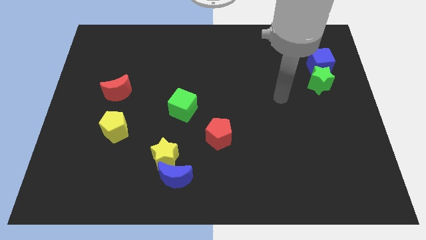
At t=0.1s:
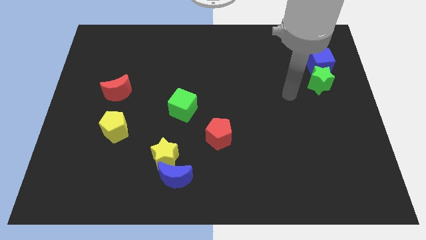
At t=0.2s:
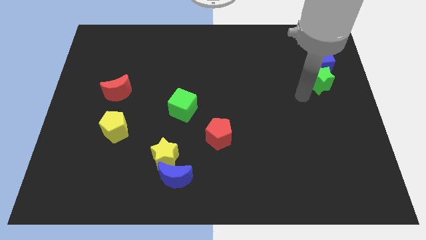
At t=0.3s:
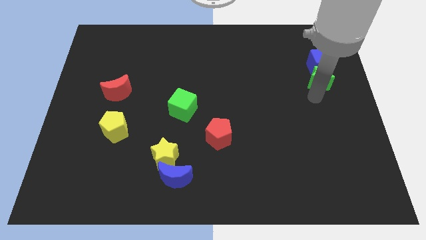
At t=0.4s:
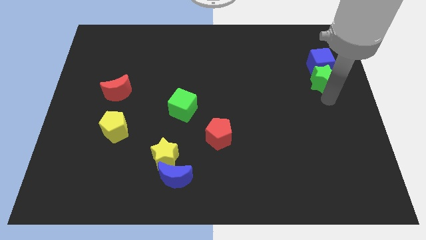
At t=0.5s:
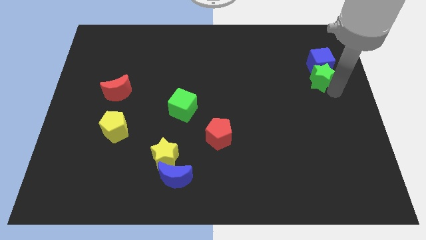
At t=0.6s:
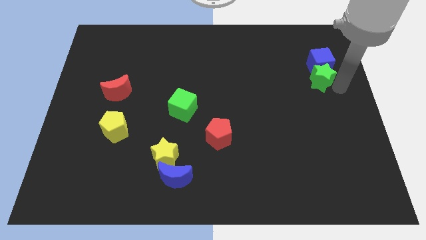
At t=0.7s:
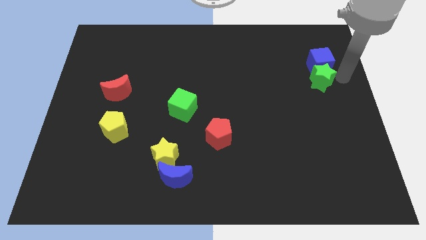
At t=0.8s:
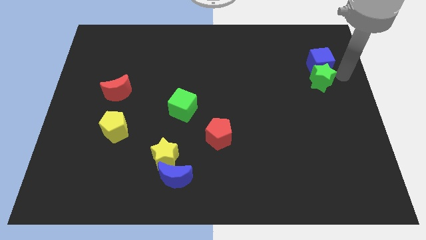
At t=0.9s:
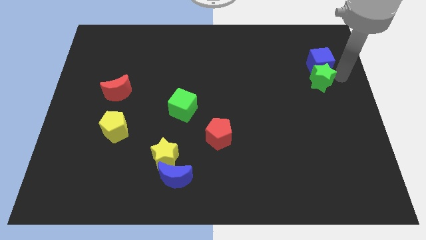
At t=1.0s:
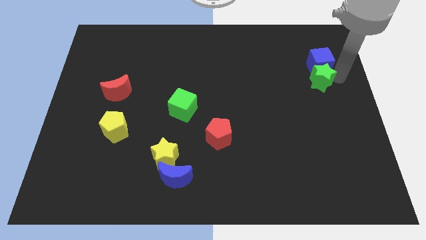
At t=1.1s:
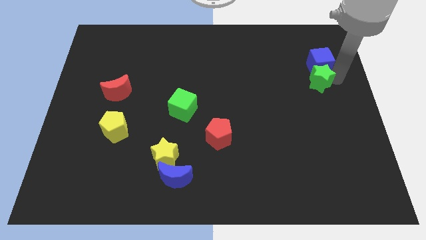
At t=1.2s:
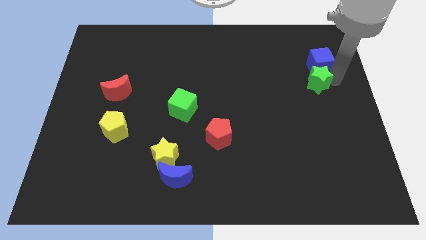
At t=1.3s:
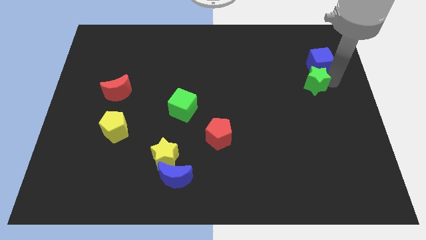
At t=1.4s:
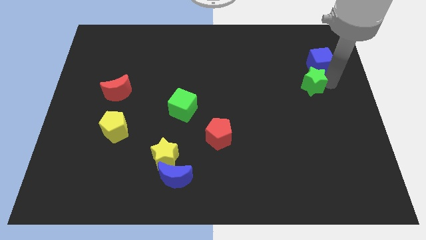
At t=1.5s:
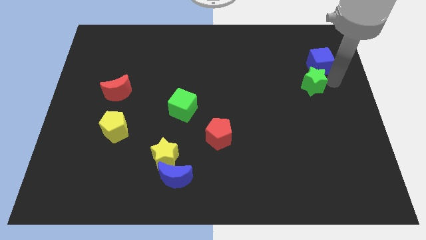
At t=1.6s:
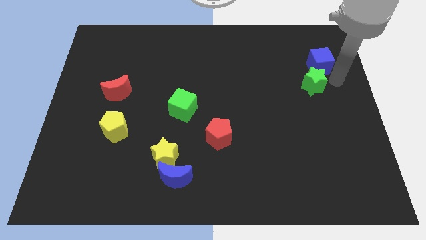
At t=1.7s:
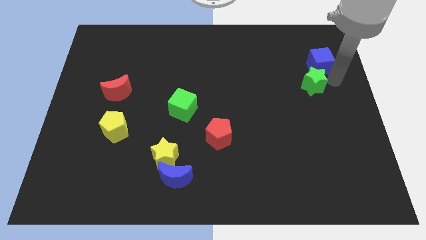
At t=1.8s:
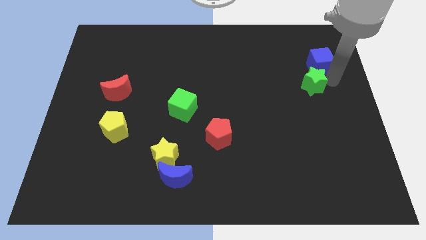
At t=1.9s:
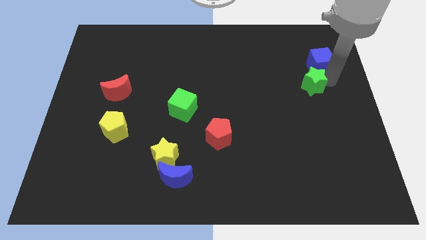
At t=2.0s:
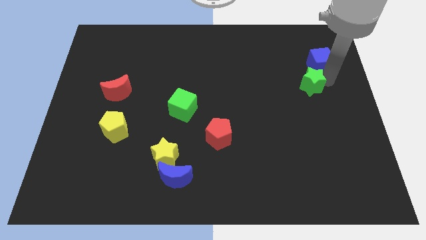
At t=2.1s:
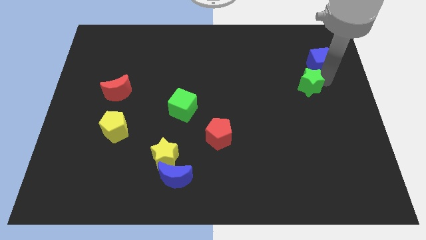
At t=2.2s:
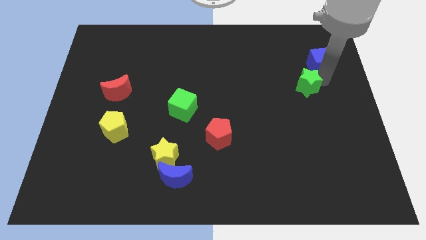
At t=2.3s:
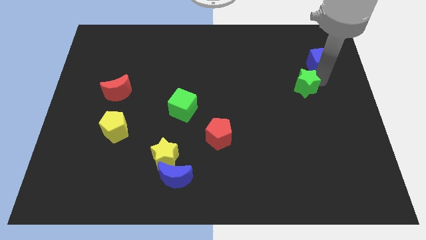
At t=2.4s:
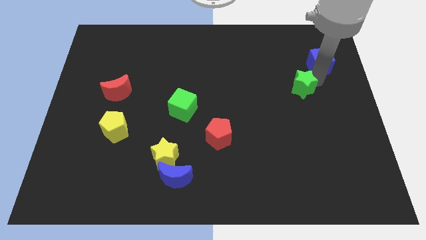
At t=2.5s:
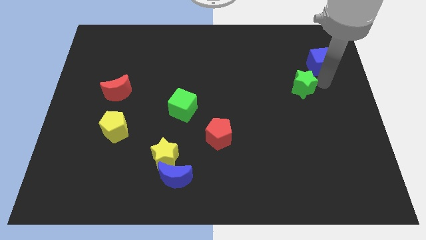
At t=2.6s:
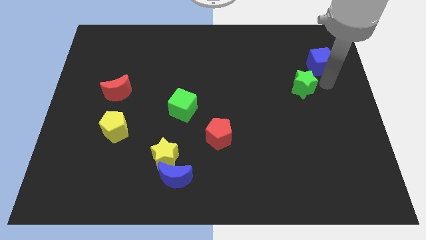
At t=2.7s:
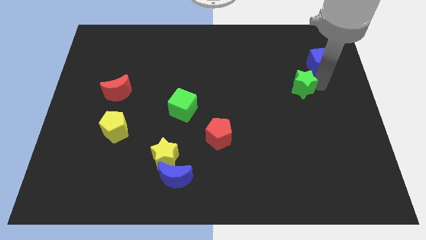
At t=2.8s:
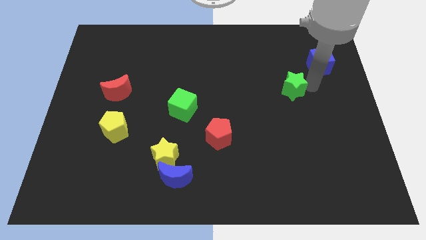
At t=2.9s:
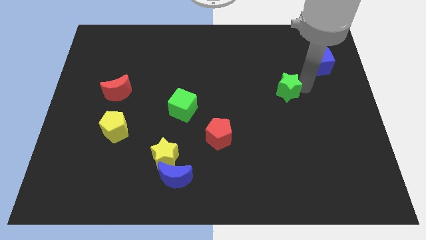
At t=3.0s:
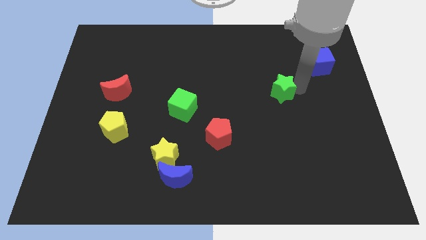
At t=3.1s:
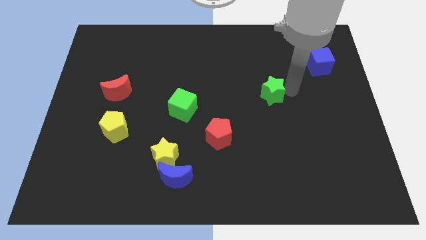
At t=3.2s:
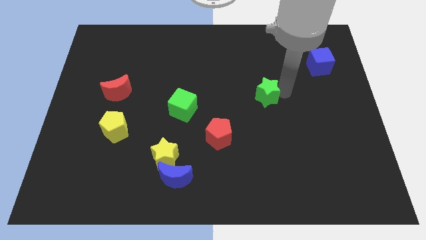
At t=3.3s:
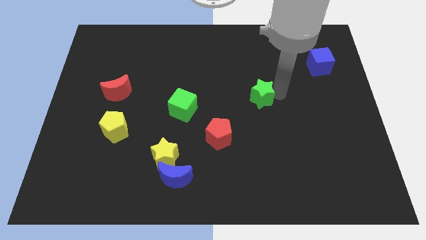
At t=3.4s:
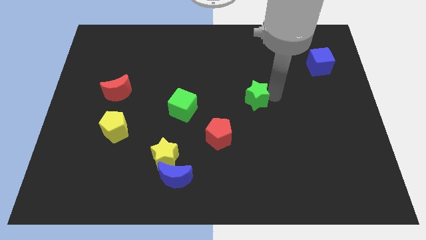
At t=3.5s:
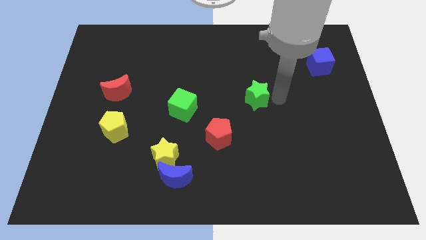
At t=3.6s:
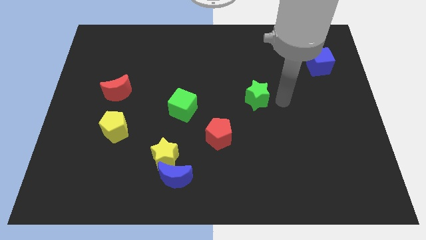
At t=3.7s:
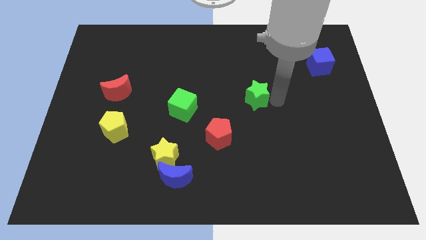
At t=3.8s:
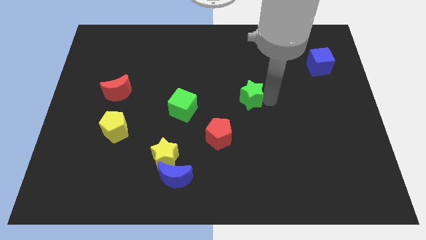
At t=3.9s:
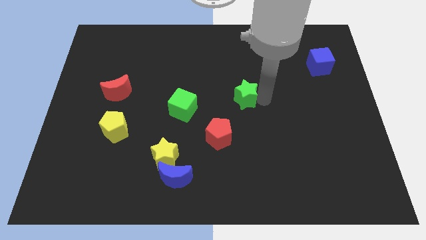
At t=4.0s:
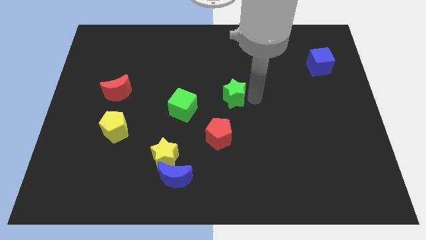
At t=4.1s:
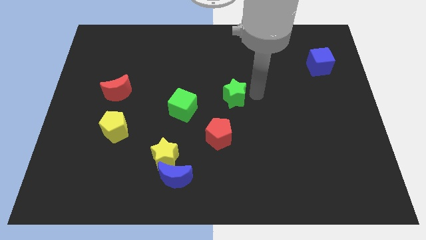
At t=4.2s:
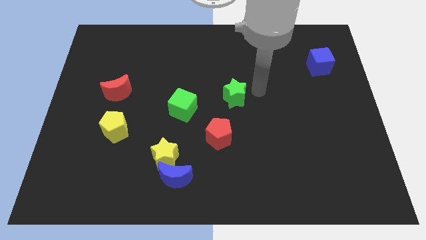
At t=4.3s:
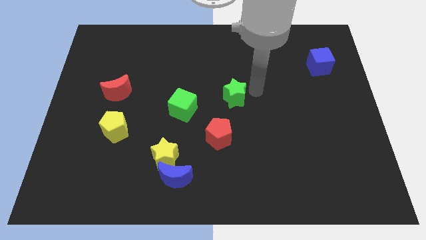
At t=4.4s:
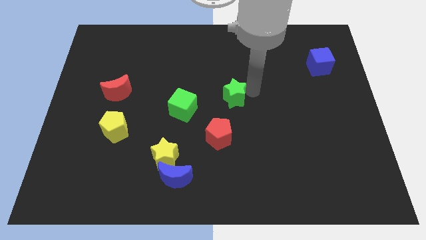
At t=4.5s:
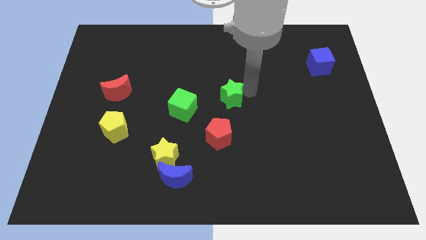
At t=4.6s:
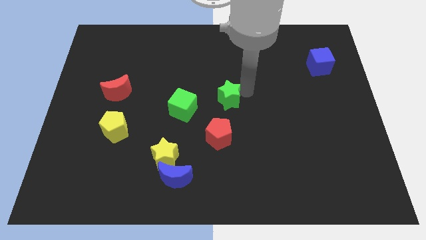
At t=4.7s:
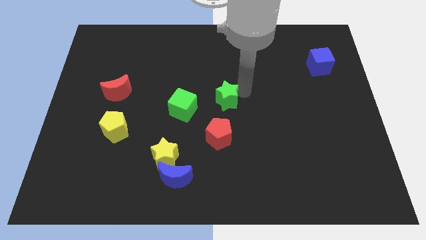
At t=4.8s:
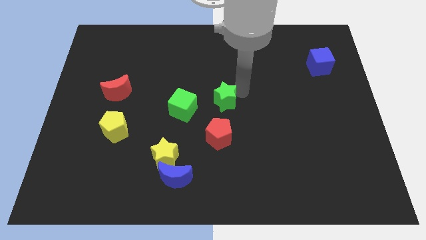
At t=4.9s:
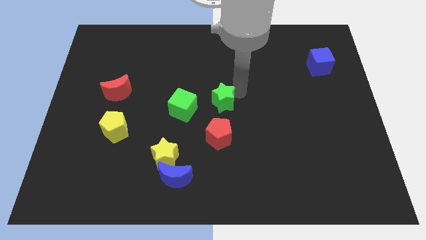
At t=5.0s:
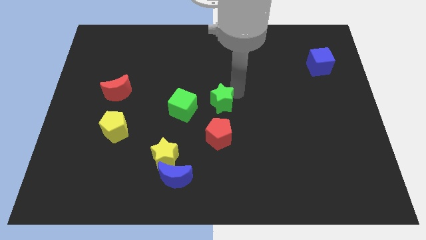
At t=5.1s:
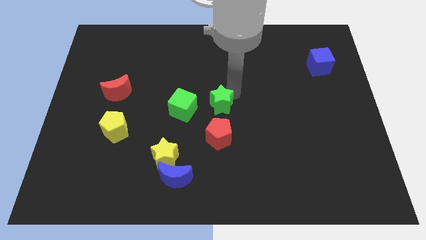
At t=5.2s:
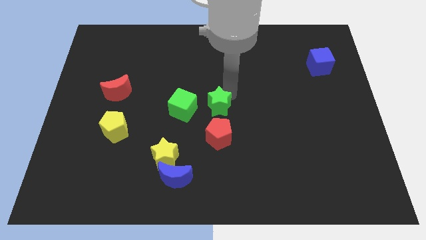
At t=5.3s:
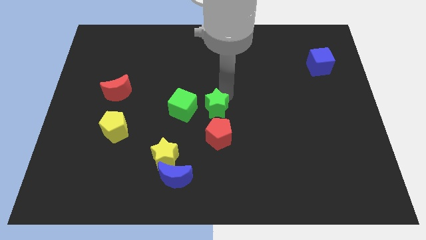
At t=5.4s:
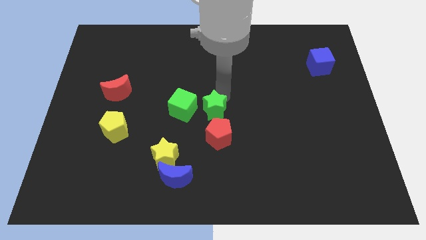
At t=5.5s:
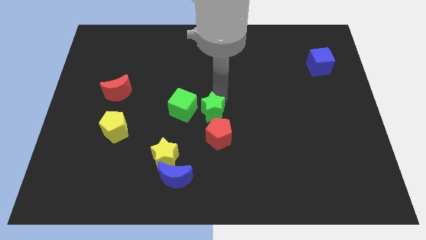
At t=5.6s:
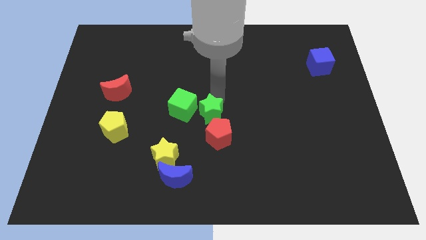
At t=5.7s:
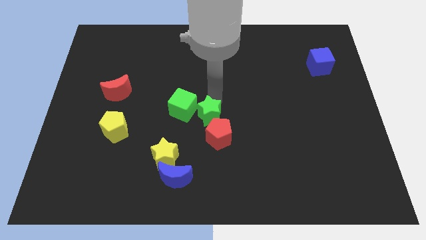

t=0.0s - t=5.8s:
push the green star next to the green cube

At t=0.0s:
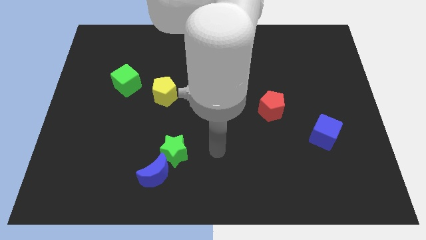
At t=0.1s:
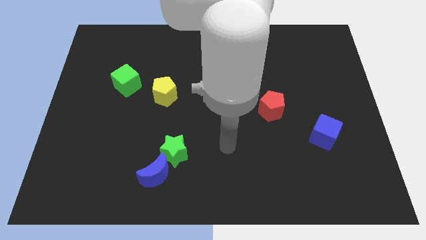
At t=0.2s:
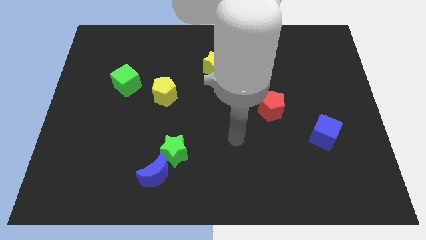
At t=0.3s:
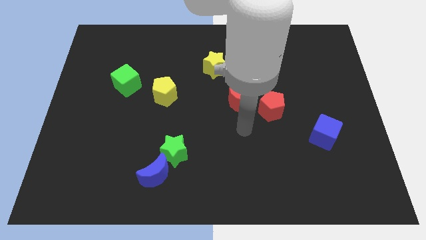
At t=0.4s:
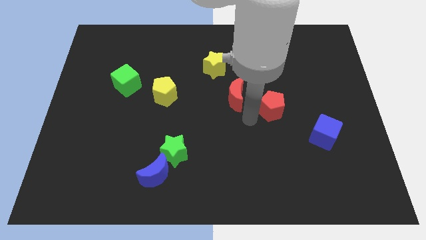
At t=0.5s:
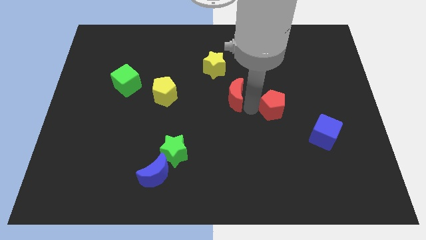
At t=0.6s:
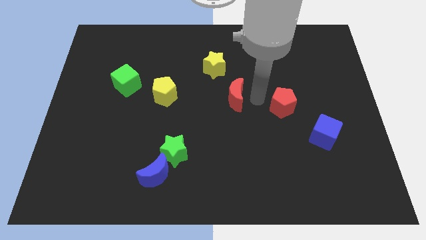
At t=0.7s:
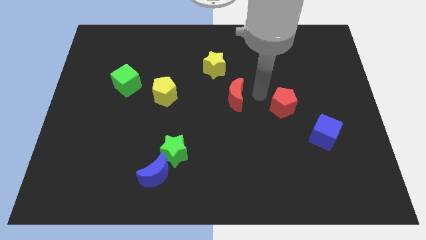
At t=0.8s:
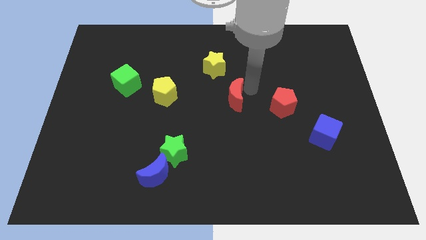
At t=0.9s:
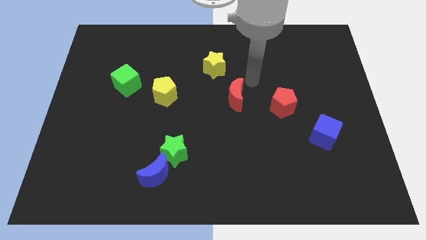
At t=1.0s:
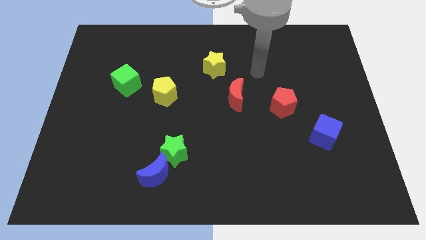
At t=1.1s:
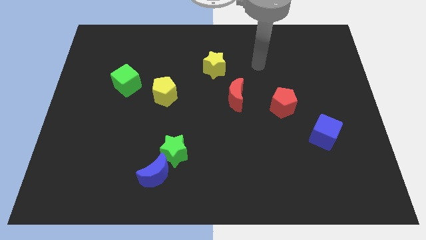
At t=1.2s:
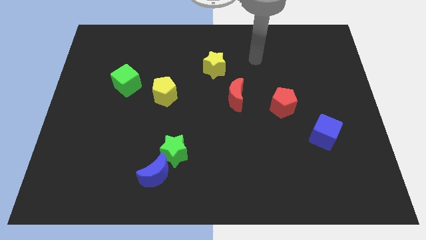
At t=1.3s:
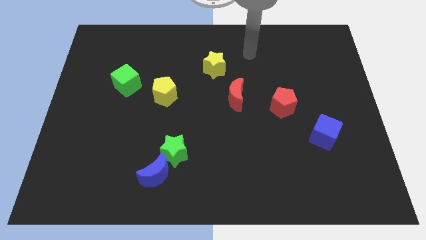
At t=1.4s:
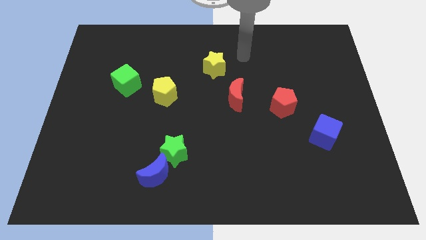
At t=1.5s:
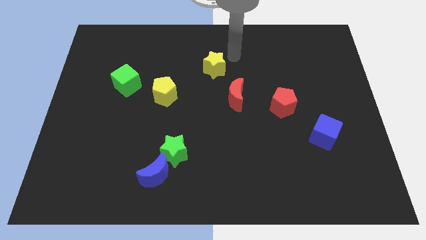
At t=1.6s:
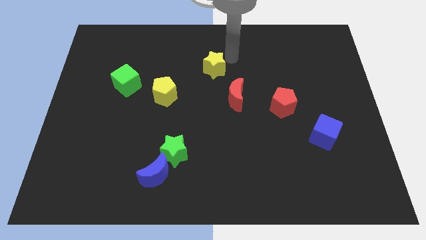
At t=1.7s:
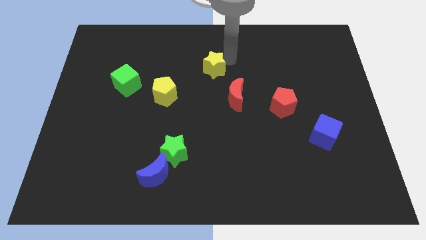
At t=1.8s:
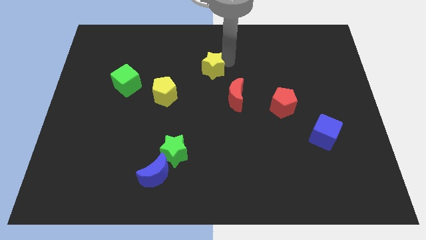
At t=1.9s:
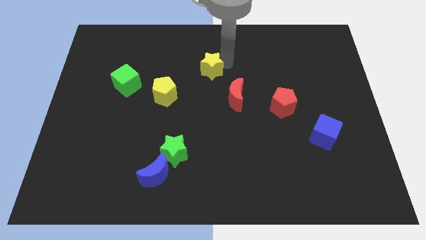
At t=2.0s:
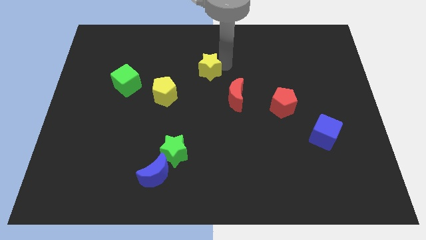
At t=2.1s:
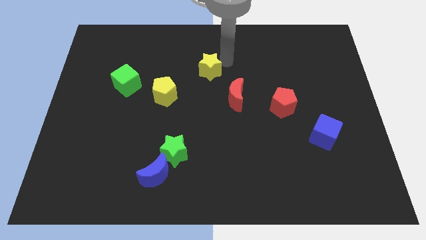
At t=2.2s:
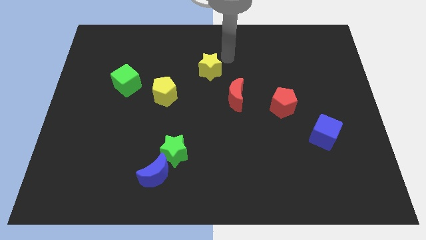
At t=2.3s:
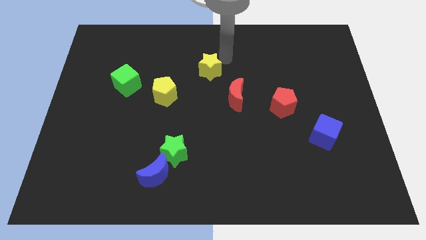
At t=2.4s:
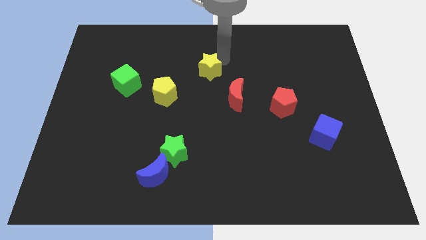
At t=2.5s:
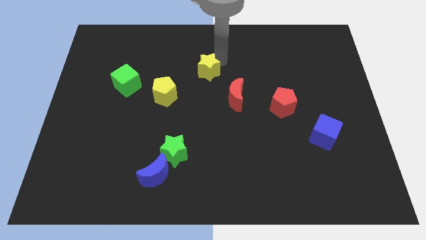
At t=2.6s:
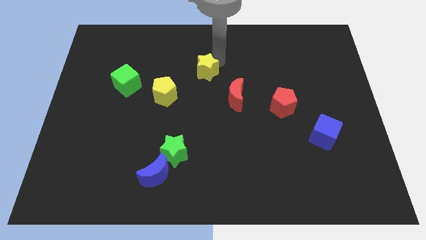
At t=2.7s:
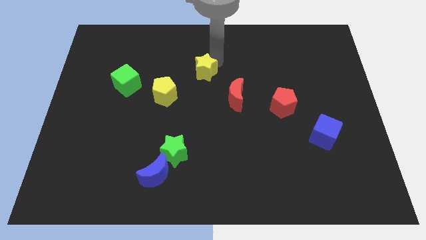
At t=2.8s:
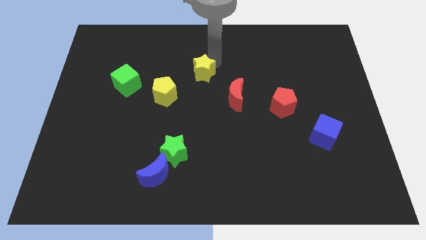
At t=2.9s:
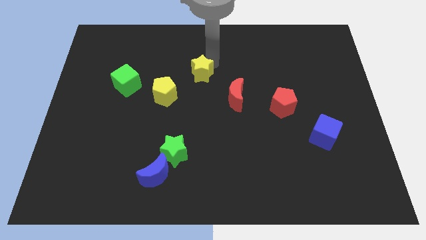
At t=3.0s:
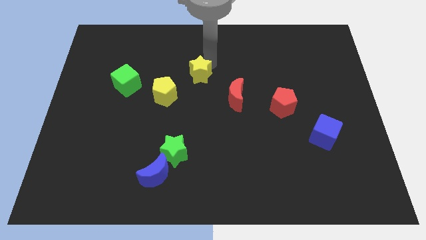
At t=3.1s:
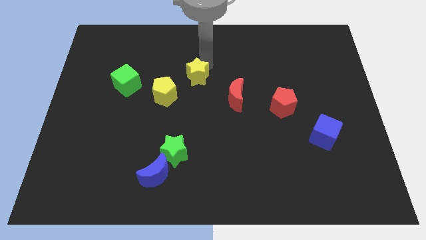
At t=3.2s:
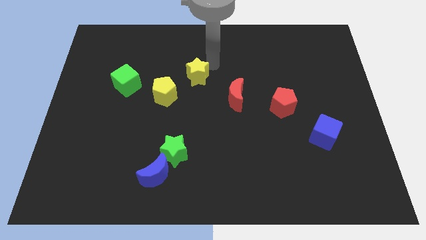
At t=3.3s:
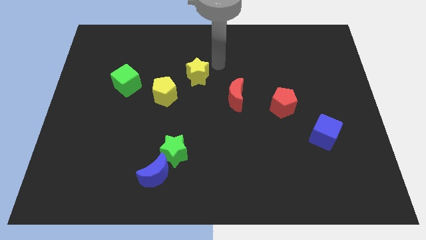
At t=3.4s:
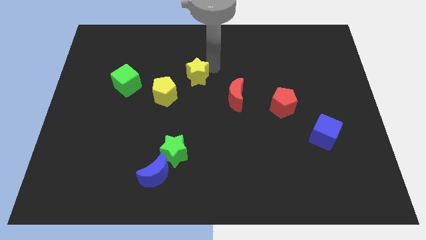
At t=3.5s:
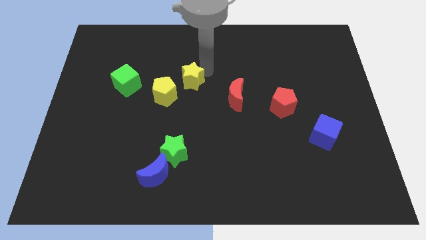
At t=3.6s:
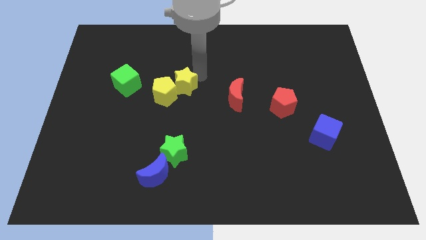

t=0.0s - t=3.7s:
put the yellow star next to the yellow pentagon
